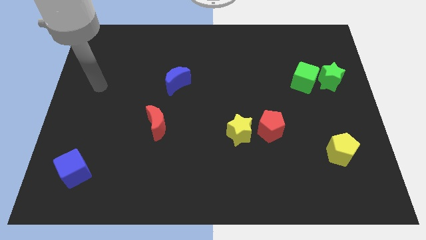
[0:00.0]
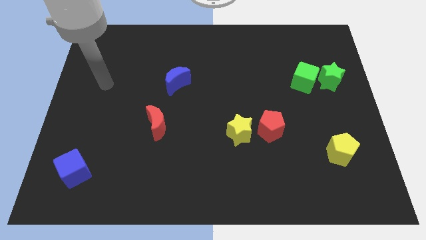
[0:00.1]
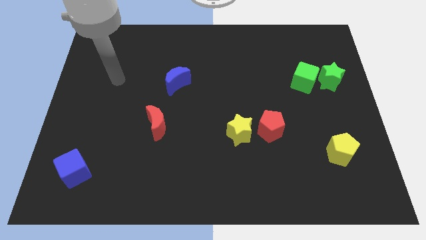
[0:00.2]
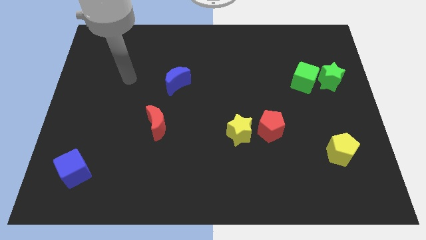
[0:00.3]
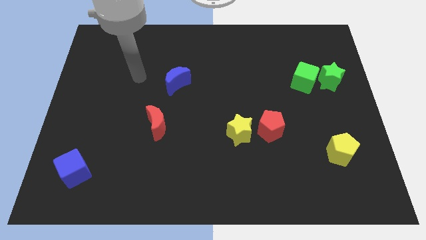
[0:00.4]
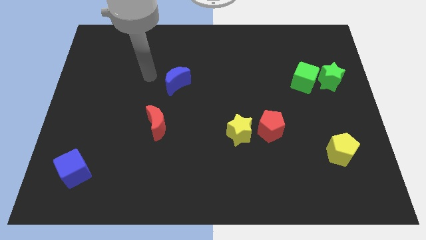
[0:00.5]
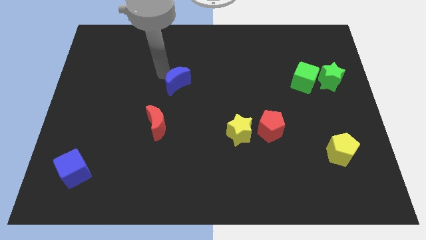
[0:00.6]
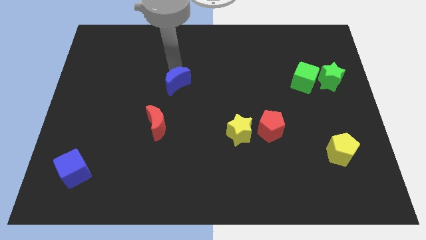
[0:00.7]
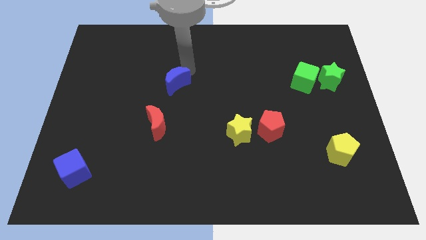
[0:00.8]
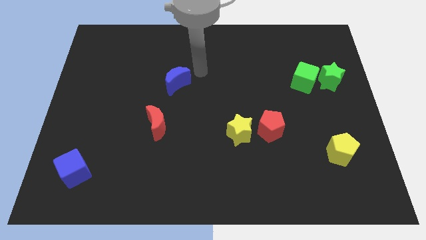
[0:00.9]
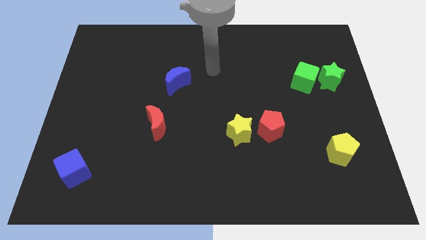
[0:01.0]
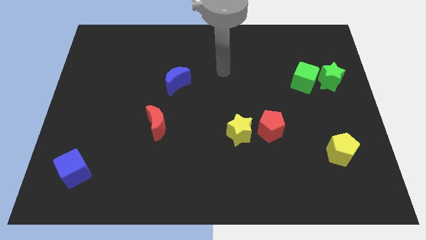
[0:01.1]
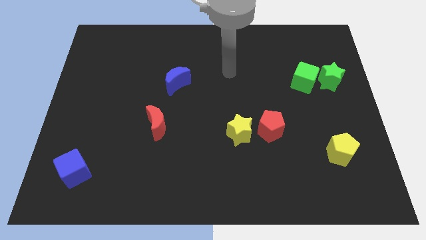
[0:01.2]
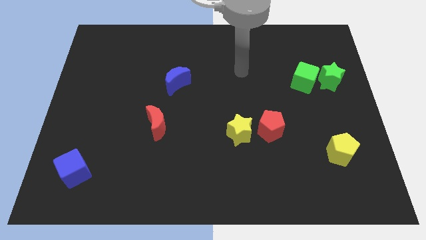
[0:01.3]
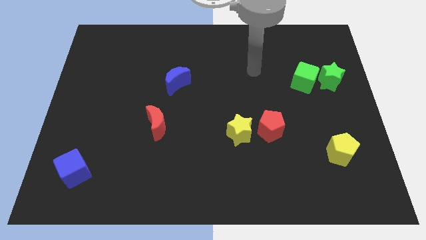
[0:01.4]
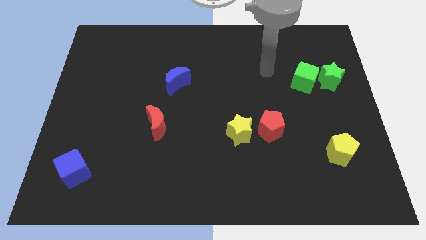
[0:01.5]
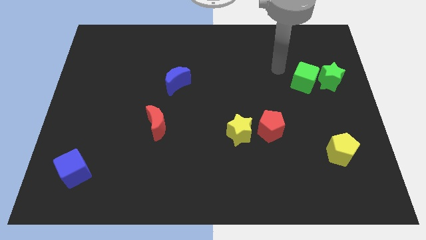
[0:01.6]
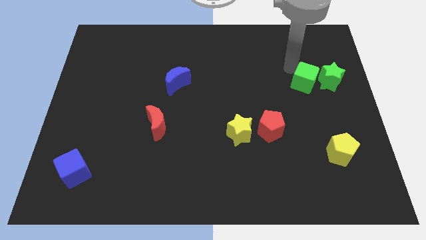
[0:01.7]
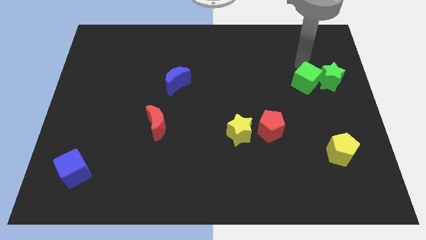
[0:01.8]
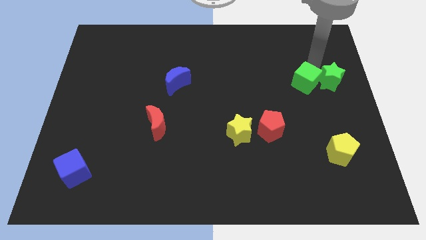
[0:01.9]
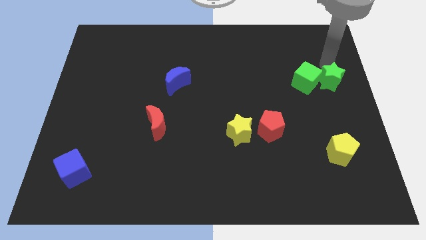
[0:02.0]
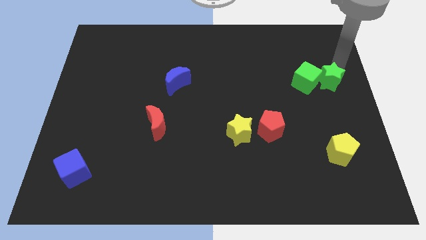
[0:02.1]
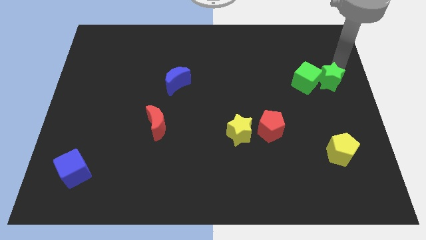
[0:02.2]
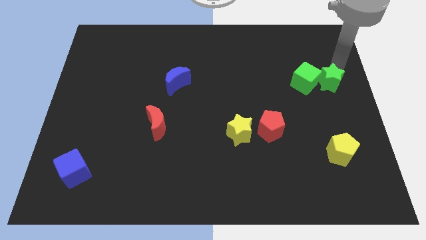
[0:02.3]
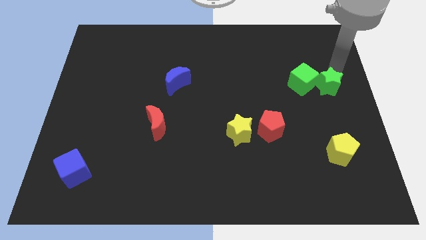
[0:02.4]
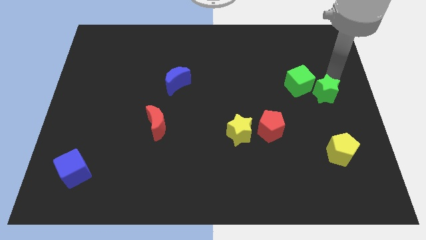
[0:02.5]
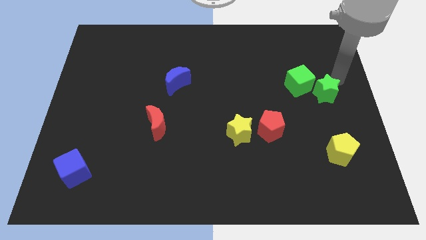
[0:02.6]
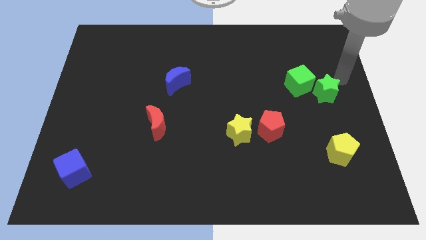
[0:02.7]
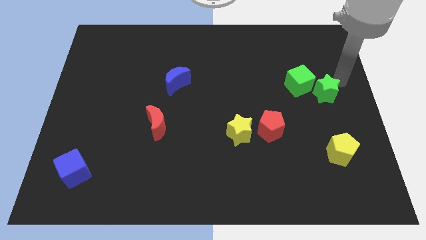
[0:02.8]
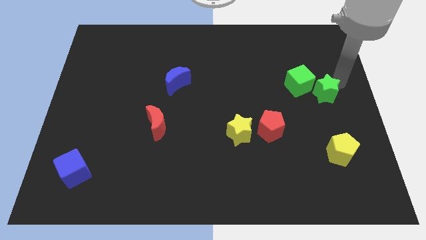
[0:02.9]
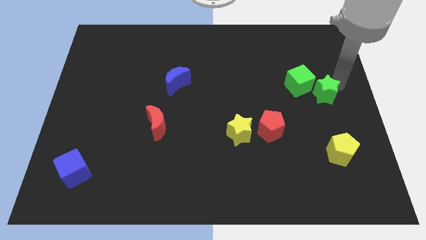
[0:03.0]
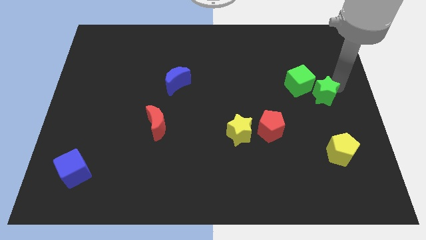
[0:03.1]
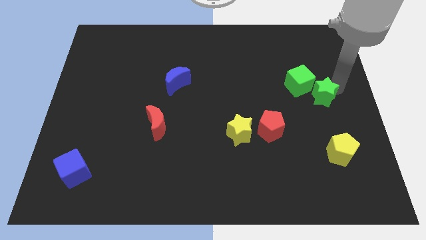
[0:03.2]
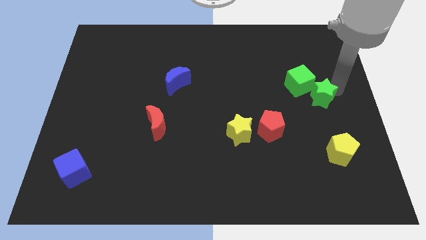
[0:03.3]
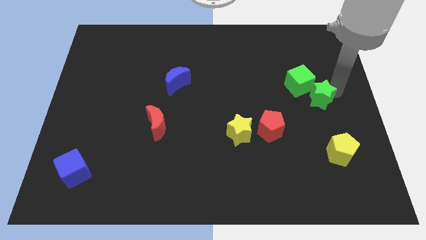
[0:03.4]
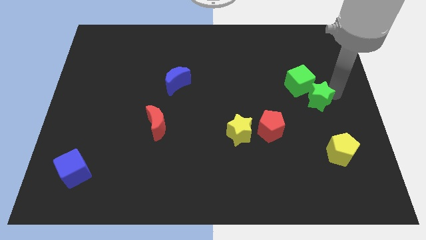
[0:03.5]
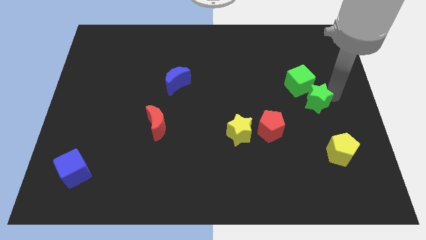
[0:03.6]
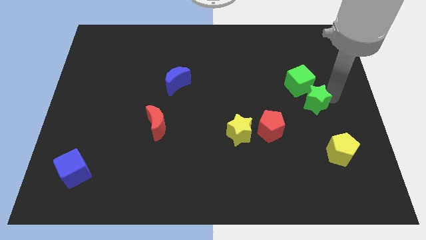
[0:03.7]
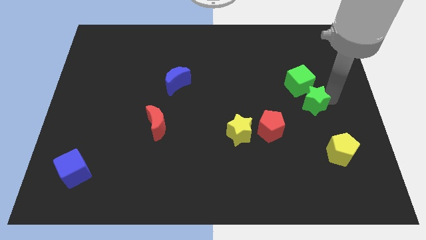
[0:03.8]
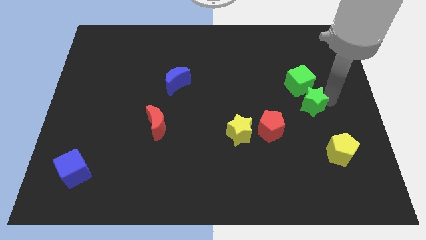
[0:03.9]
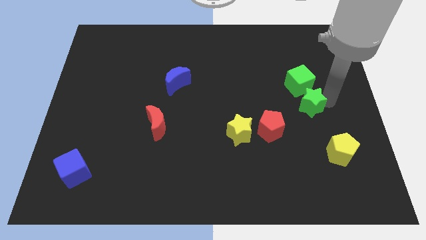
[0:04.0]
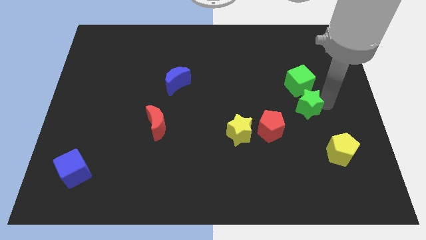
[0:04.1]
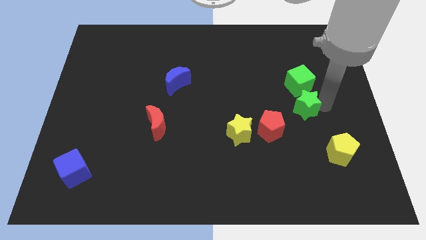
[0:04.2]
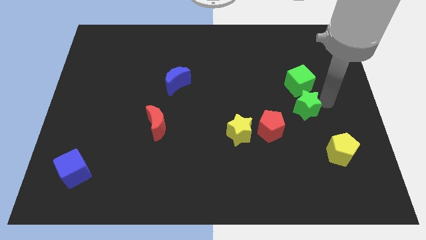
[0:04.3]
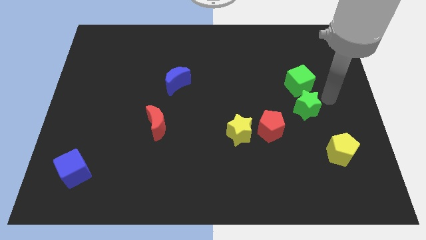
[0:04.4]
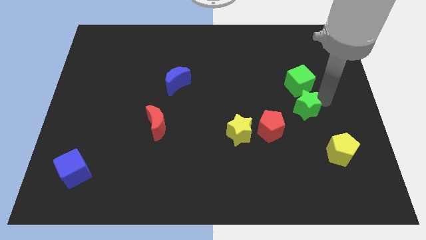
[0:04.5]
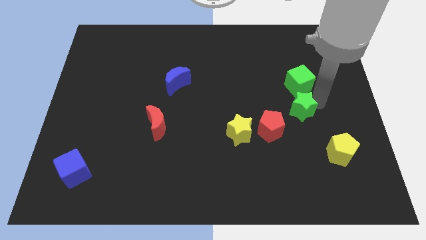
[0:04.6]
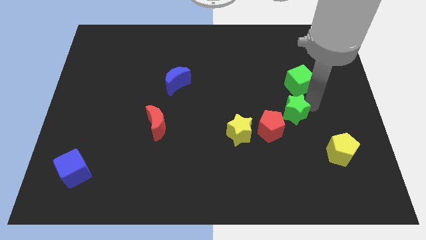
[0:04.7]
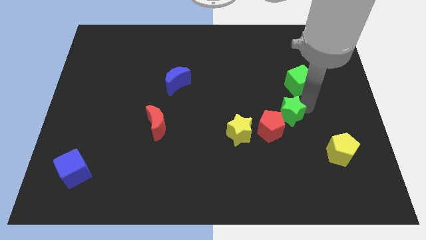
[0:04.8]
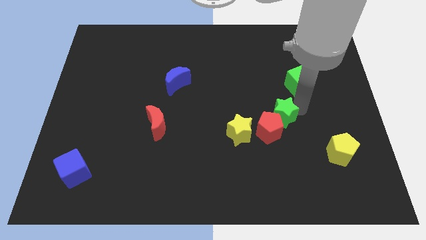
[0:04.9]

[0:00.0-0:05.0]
move the green star close to the red pentagon

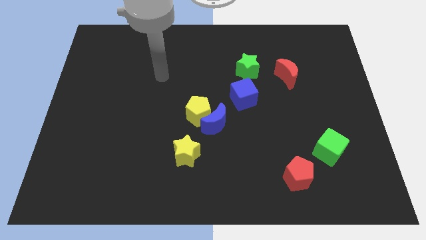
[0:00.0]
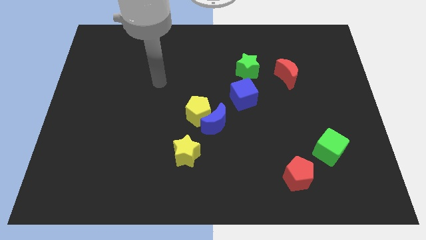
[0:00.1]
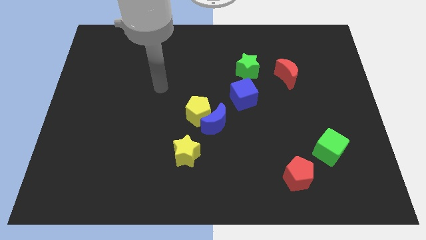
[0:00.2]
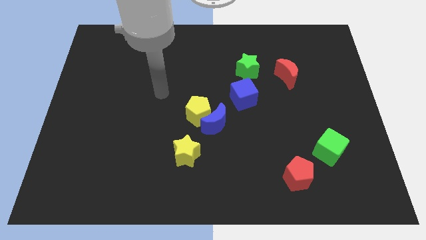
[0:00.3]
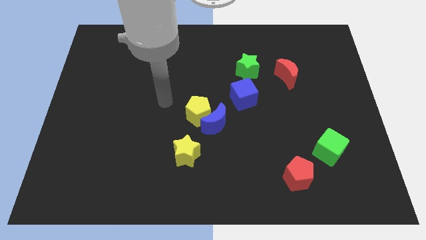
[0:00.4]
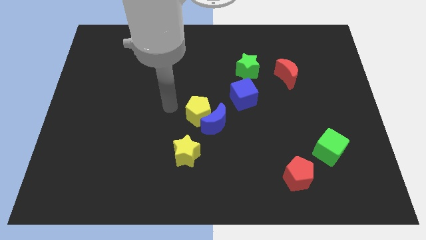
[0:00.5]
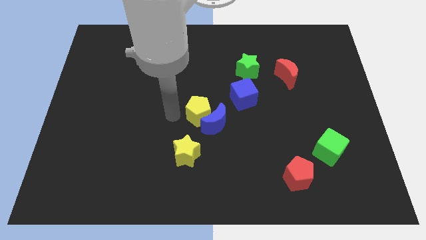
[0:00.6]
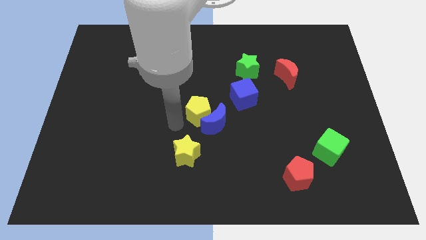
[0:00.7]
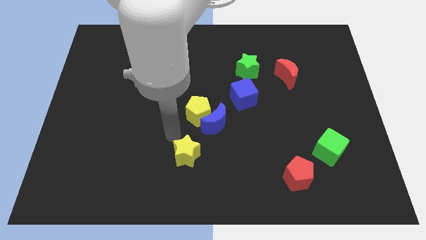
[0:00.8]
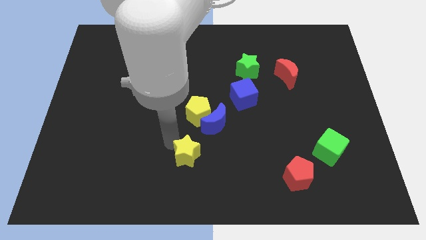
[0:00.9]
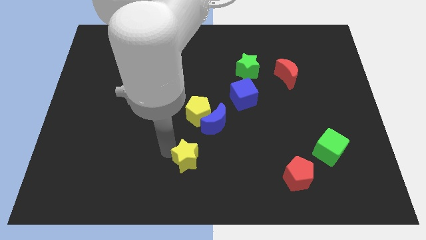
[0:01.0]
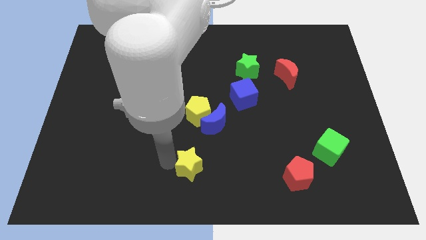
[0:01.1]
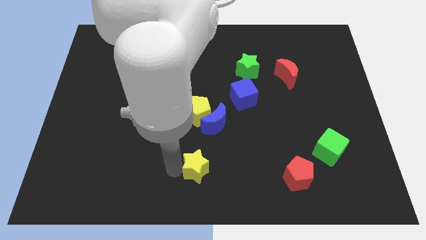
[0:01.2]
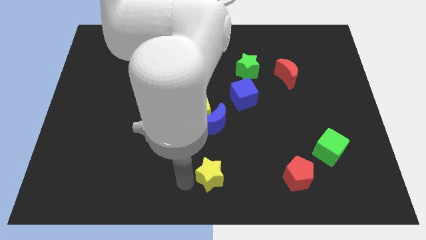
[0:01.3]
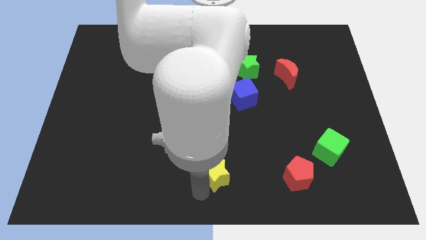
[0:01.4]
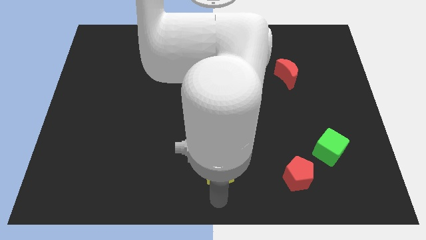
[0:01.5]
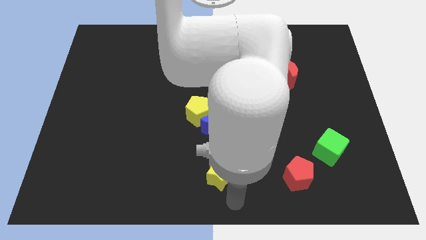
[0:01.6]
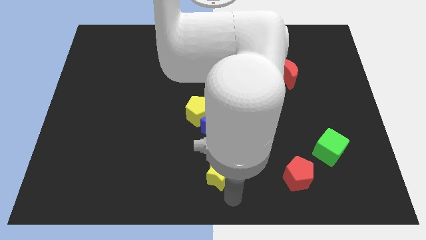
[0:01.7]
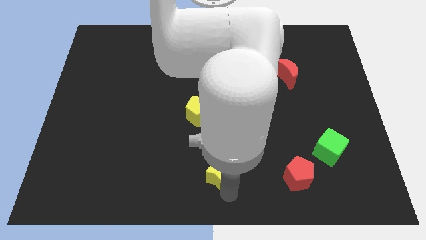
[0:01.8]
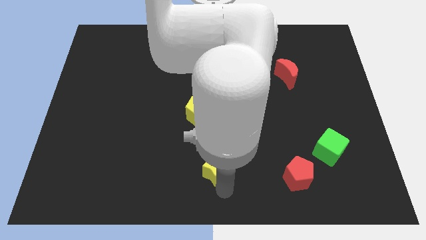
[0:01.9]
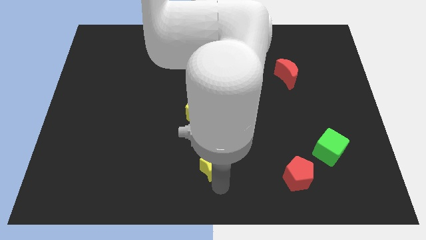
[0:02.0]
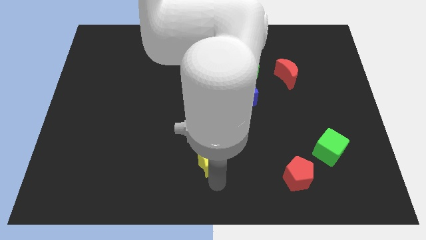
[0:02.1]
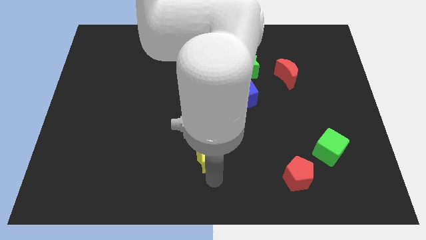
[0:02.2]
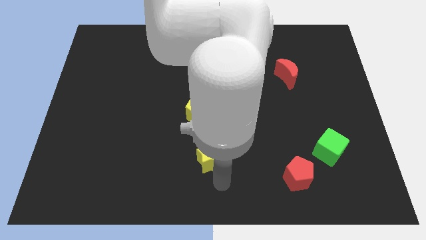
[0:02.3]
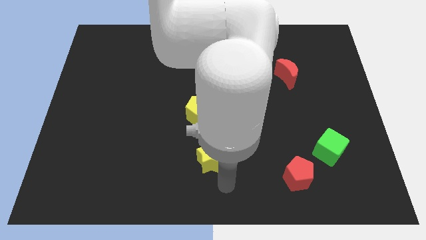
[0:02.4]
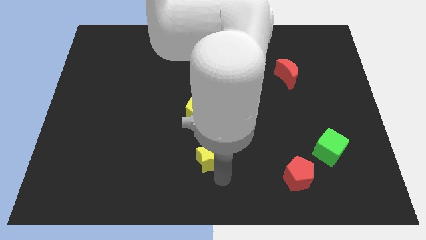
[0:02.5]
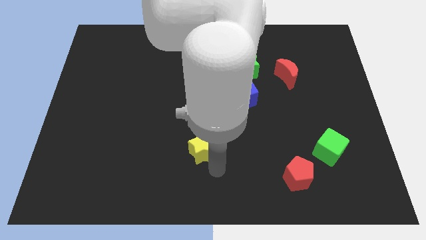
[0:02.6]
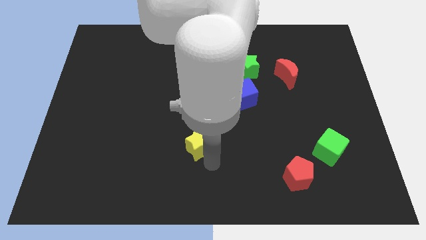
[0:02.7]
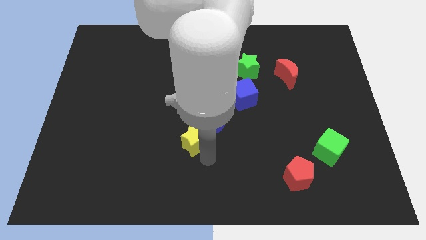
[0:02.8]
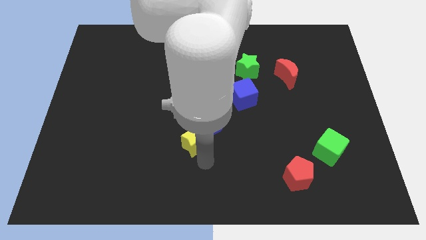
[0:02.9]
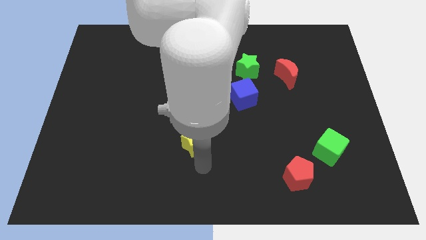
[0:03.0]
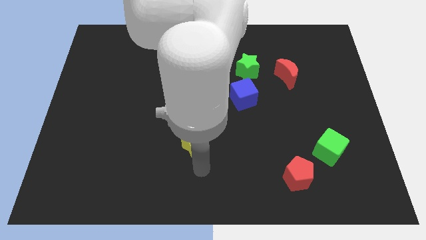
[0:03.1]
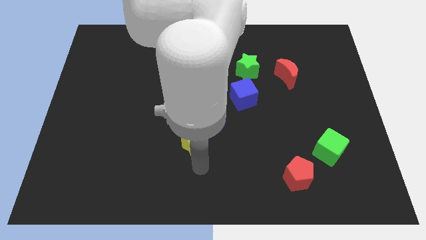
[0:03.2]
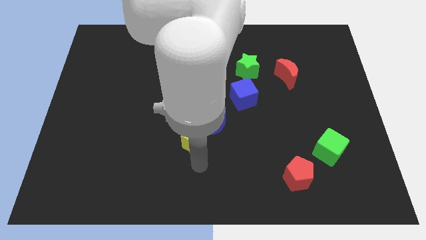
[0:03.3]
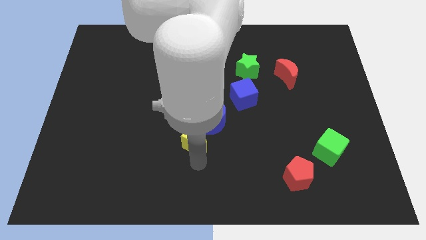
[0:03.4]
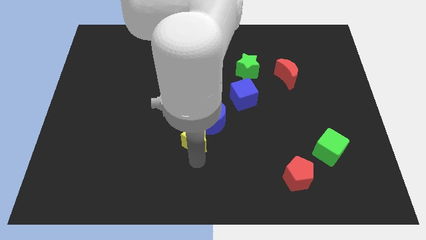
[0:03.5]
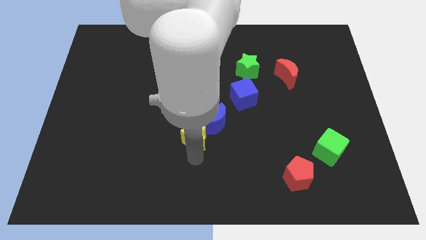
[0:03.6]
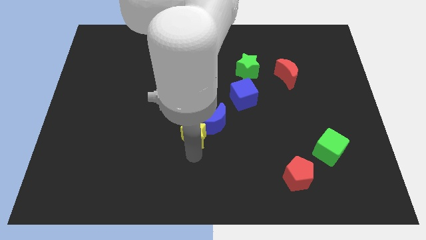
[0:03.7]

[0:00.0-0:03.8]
put the yellow star next to the yellow pentagon
